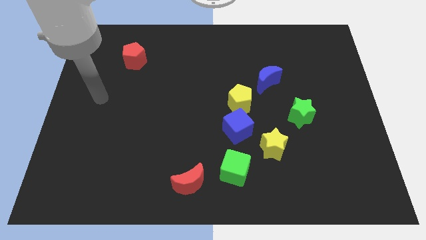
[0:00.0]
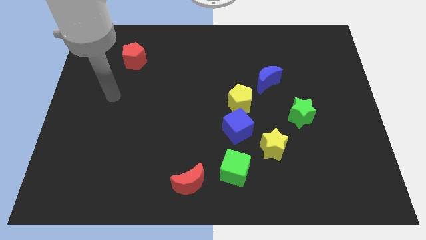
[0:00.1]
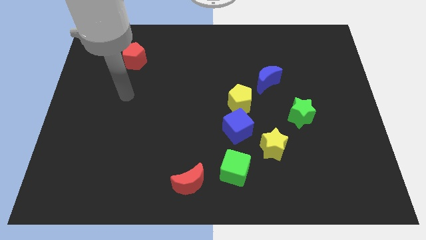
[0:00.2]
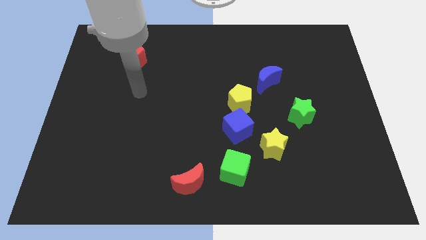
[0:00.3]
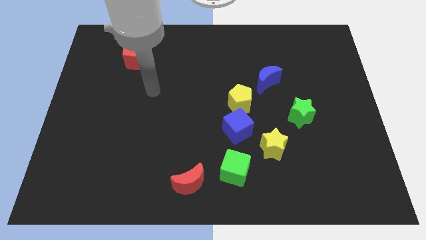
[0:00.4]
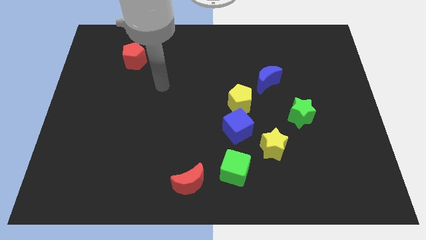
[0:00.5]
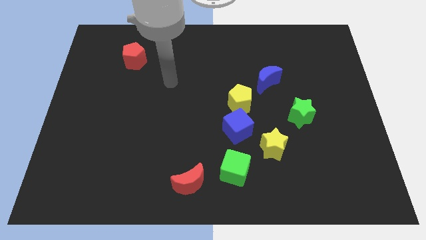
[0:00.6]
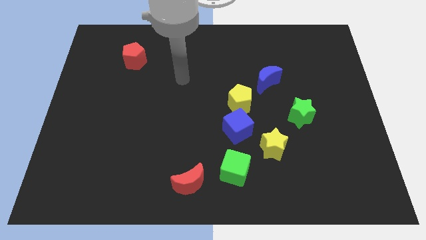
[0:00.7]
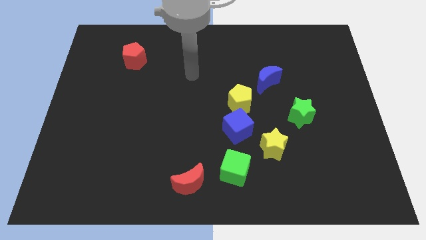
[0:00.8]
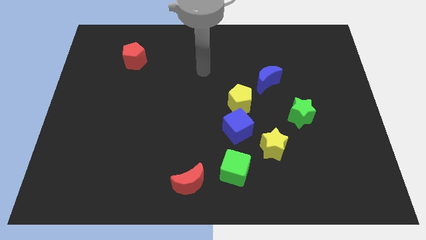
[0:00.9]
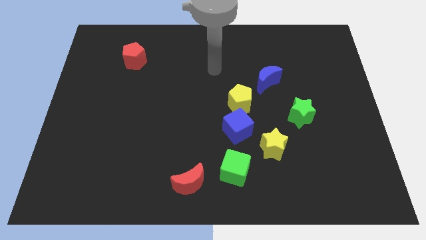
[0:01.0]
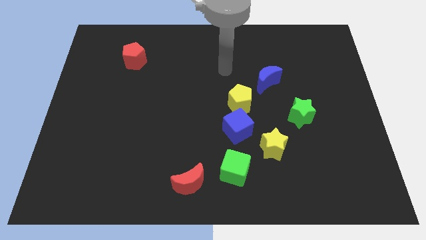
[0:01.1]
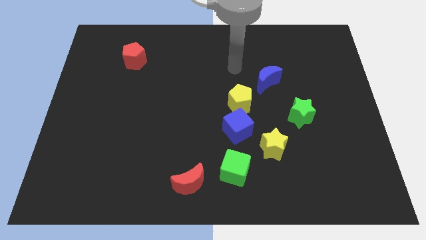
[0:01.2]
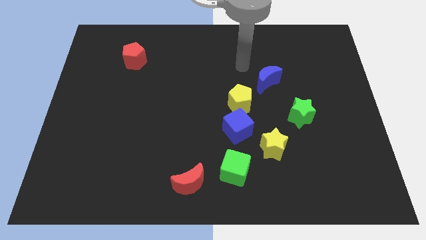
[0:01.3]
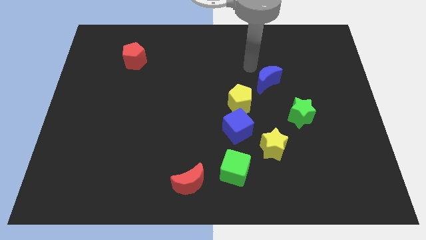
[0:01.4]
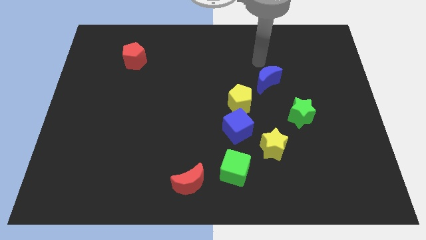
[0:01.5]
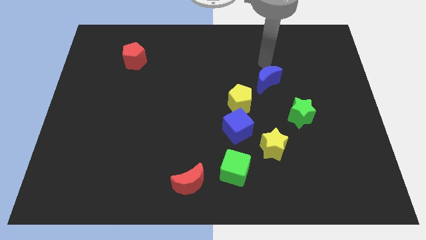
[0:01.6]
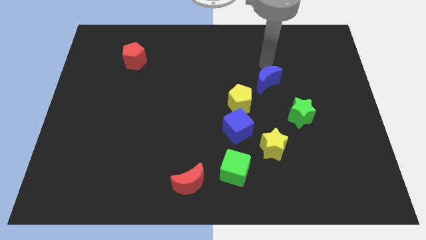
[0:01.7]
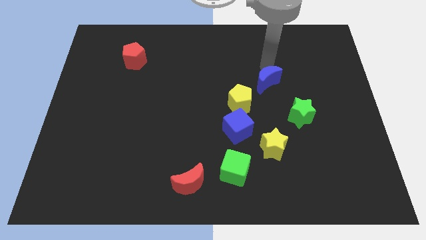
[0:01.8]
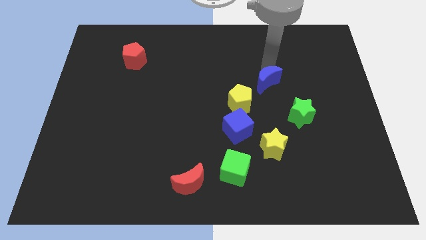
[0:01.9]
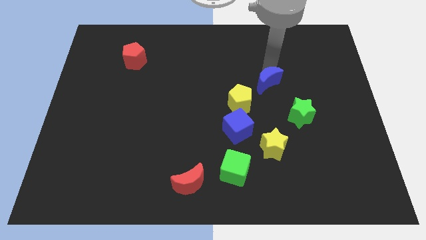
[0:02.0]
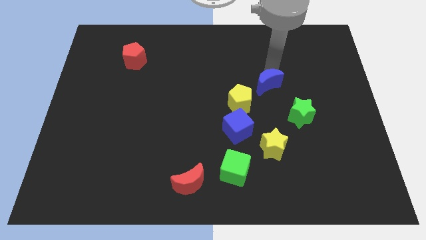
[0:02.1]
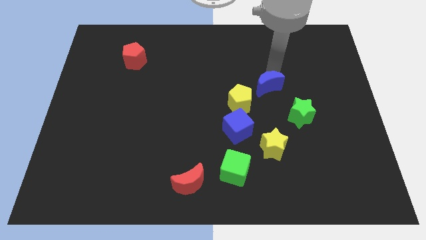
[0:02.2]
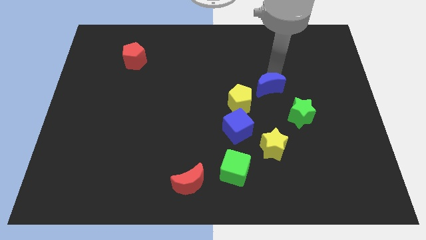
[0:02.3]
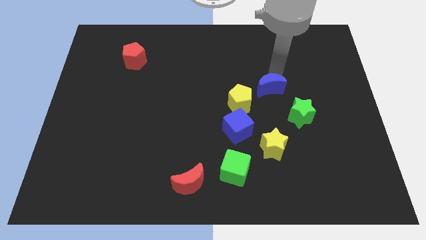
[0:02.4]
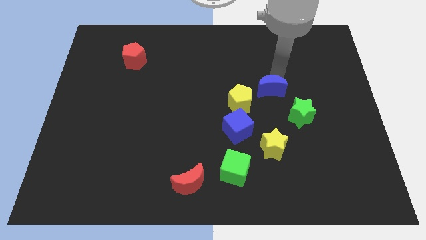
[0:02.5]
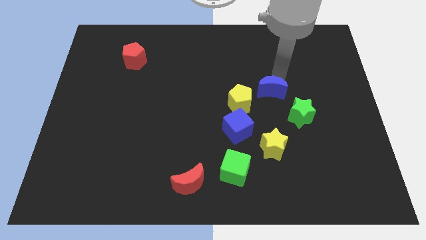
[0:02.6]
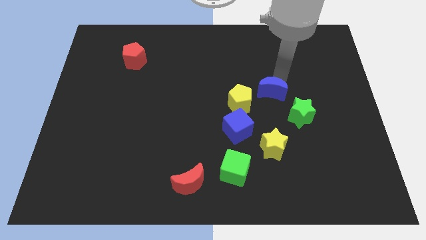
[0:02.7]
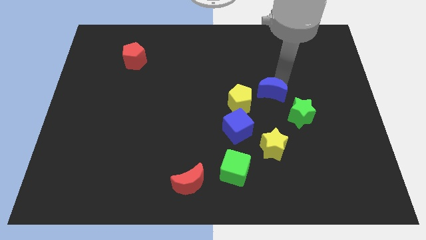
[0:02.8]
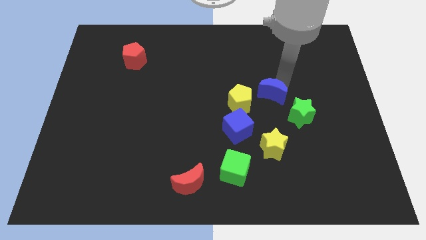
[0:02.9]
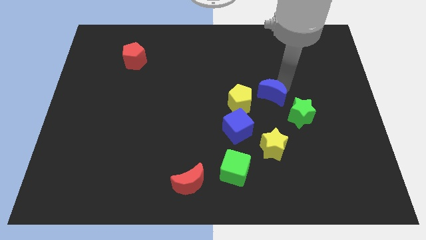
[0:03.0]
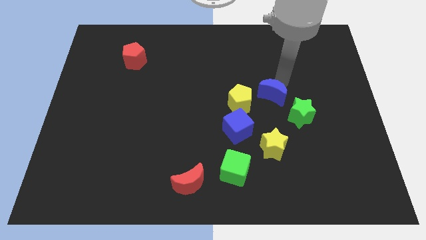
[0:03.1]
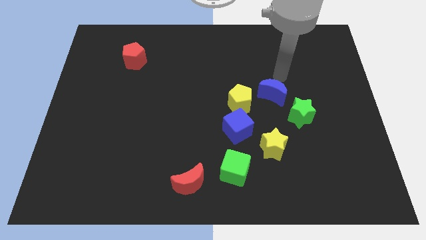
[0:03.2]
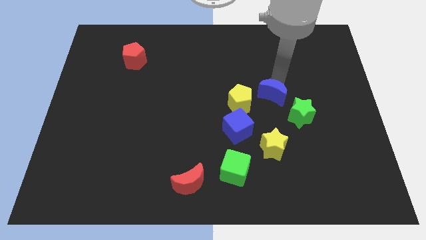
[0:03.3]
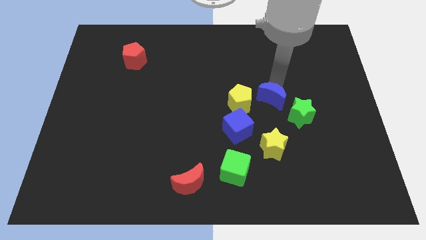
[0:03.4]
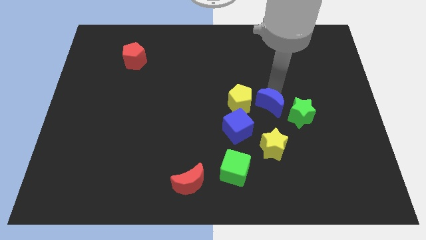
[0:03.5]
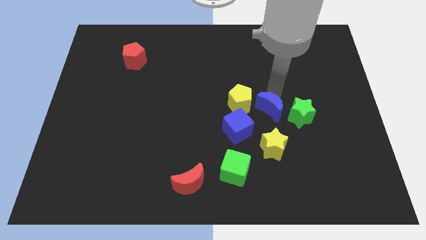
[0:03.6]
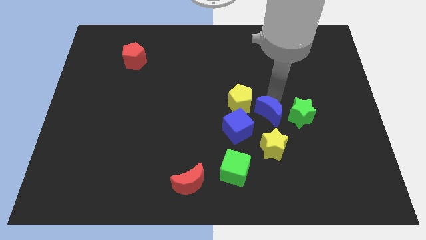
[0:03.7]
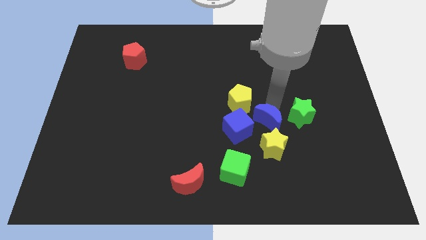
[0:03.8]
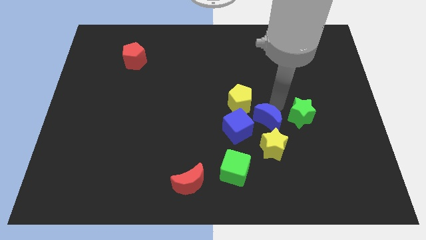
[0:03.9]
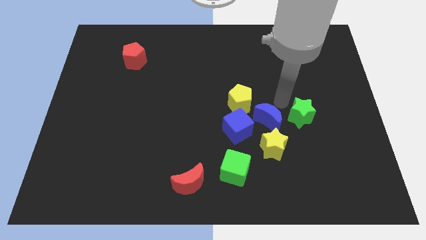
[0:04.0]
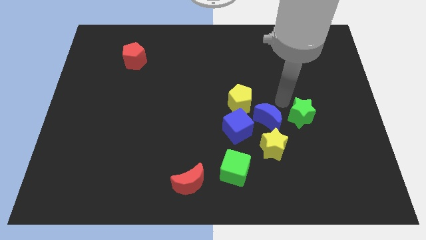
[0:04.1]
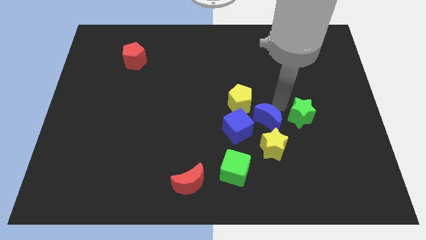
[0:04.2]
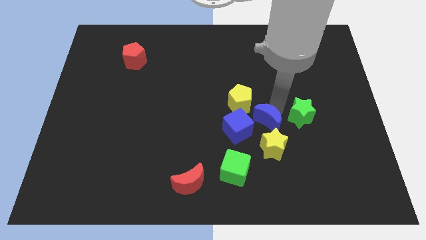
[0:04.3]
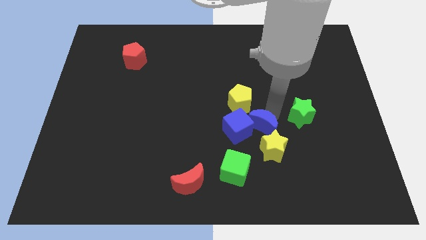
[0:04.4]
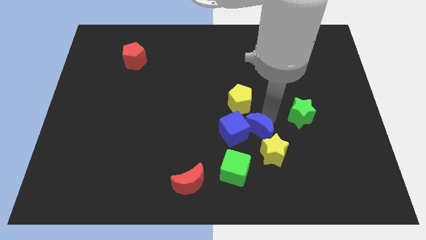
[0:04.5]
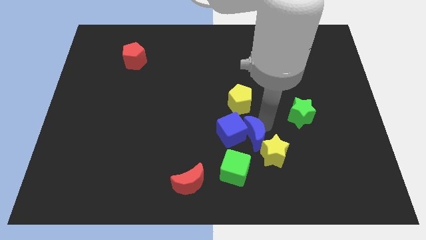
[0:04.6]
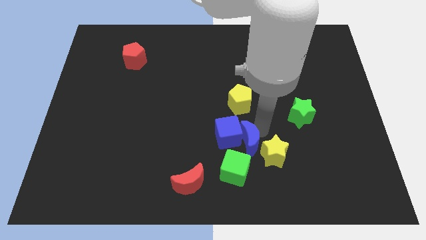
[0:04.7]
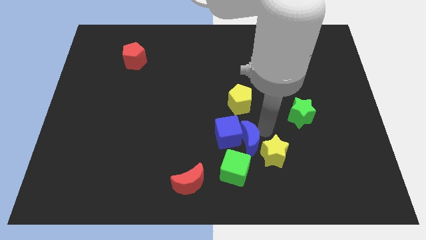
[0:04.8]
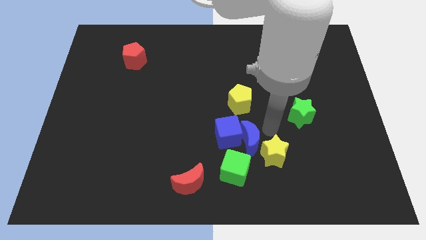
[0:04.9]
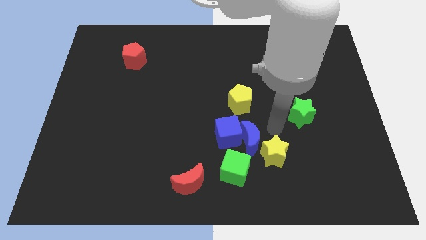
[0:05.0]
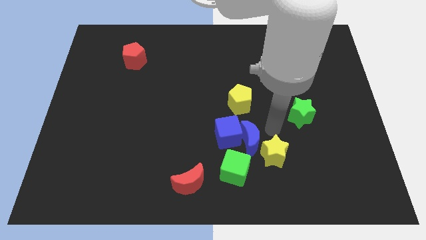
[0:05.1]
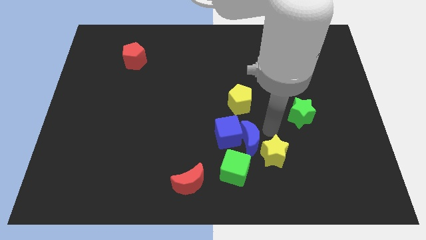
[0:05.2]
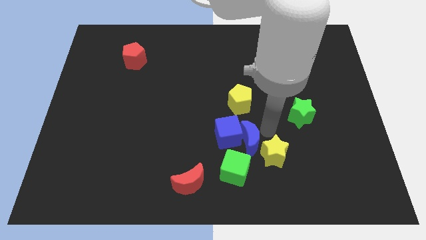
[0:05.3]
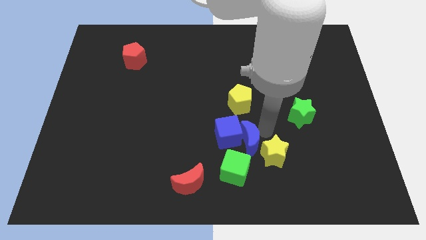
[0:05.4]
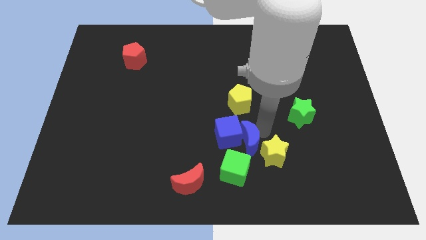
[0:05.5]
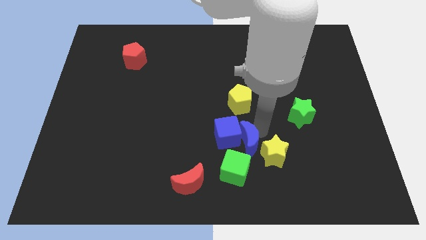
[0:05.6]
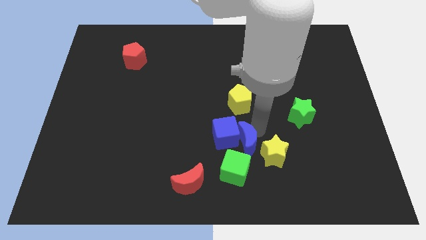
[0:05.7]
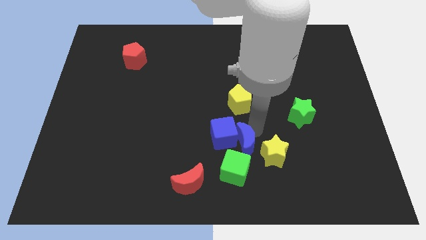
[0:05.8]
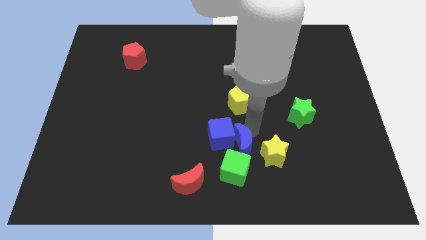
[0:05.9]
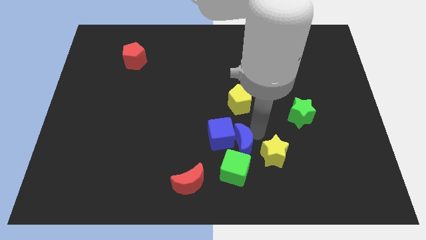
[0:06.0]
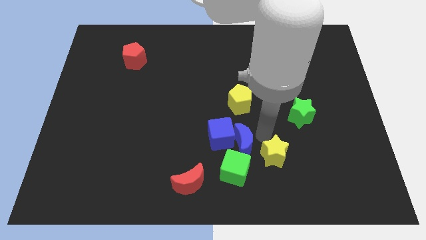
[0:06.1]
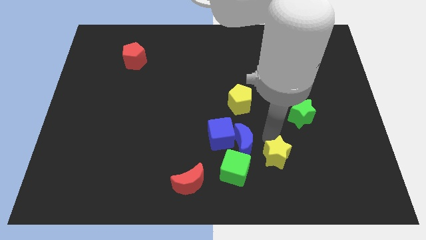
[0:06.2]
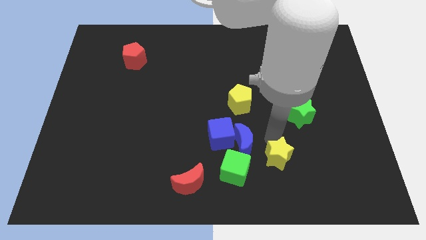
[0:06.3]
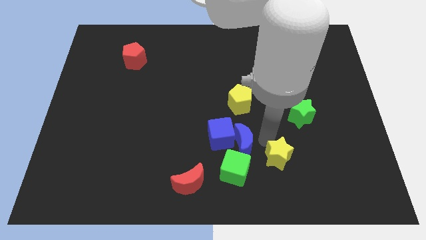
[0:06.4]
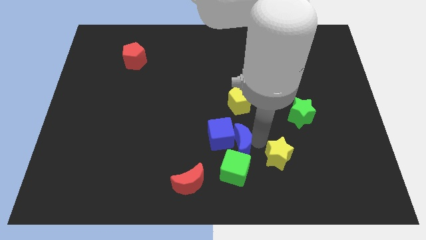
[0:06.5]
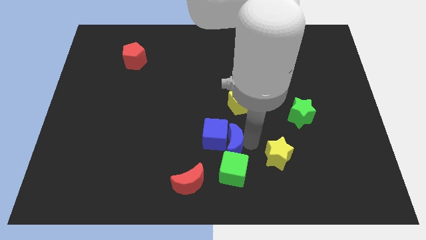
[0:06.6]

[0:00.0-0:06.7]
put the blue moon to the top left side of the green cube

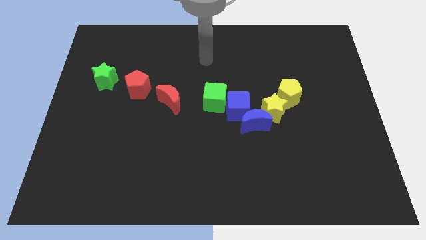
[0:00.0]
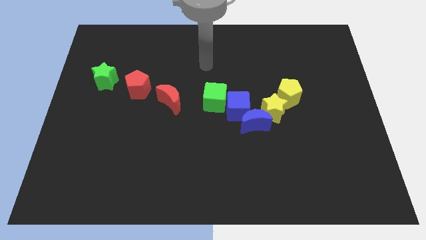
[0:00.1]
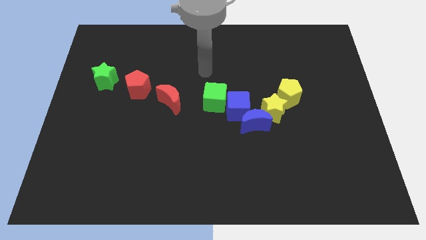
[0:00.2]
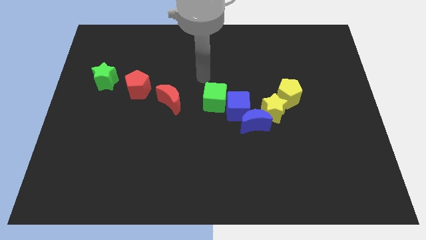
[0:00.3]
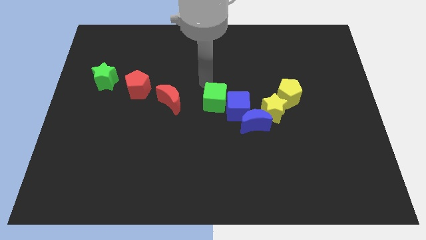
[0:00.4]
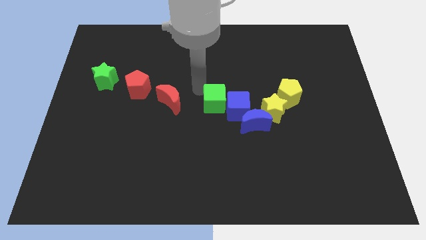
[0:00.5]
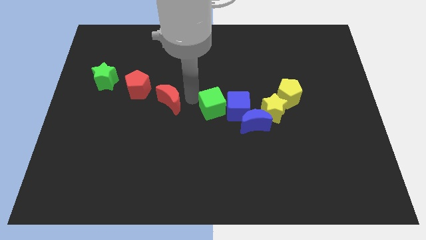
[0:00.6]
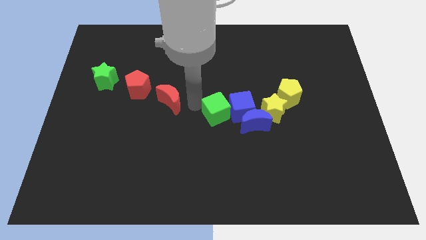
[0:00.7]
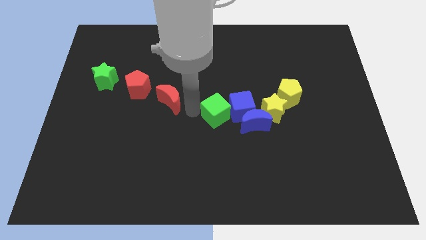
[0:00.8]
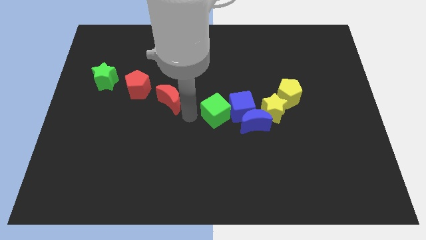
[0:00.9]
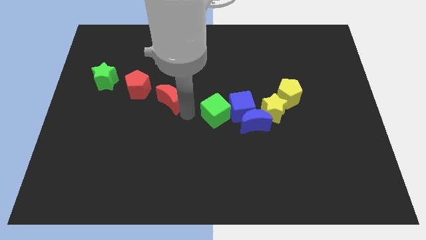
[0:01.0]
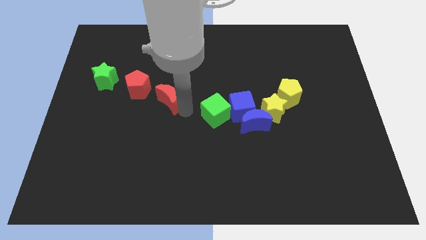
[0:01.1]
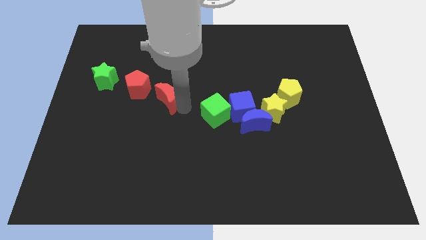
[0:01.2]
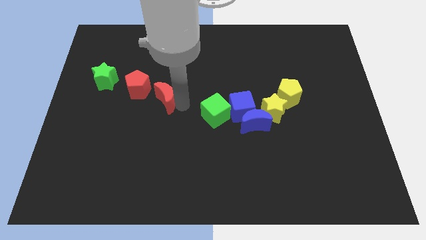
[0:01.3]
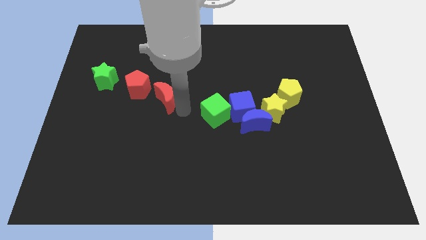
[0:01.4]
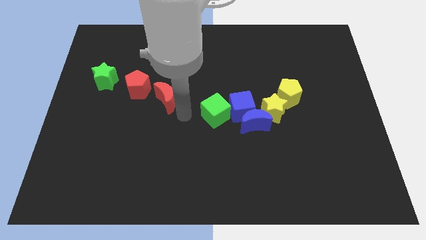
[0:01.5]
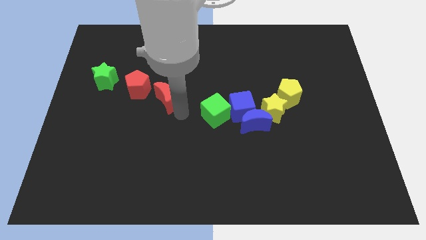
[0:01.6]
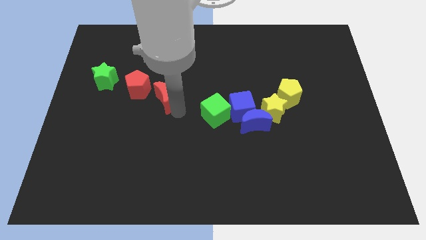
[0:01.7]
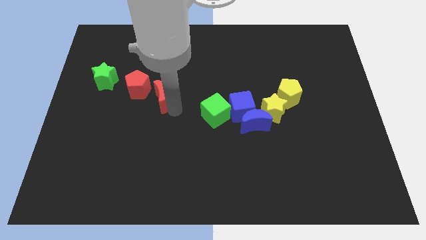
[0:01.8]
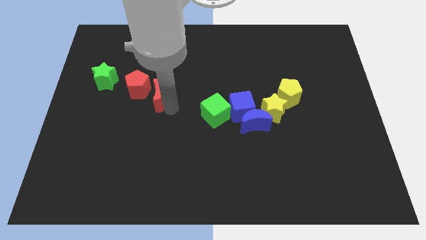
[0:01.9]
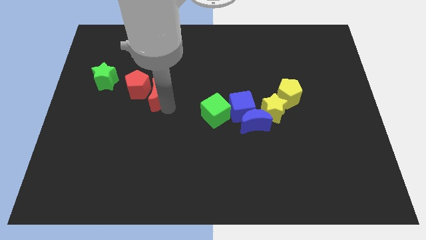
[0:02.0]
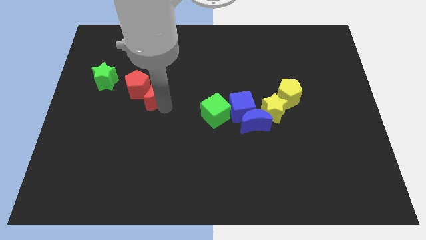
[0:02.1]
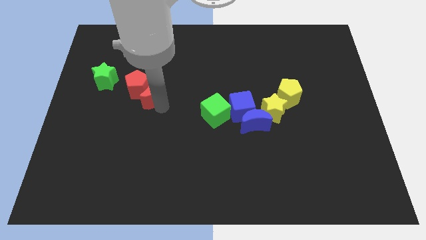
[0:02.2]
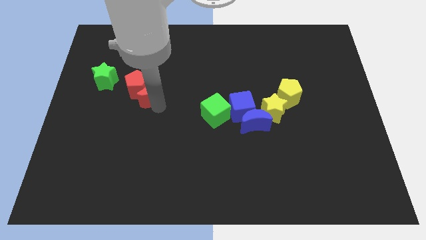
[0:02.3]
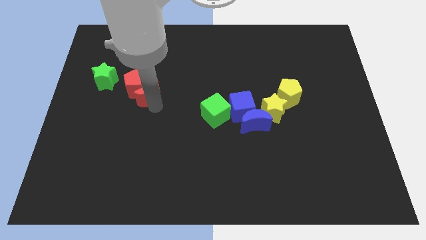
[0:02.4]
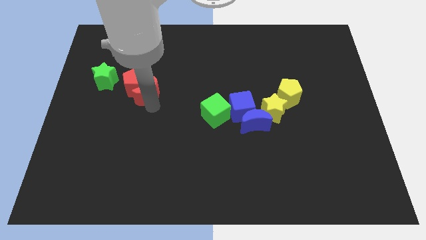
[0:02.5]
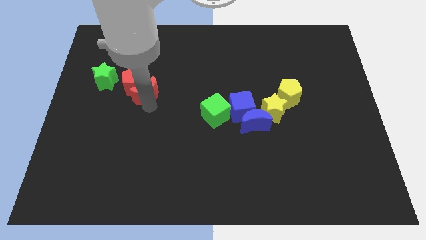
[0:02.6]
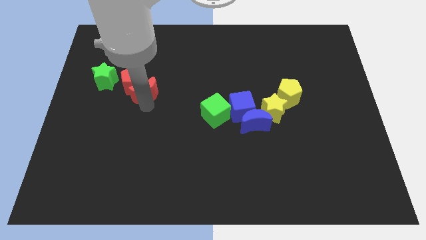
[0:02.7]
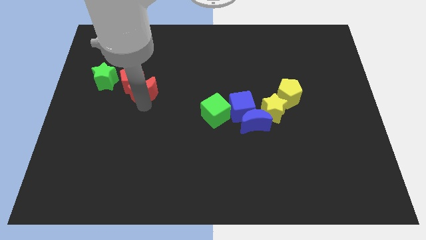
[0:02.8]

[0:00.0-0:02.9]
push the red moon to the right side of the green star
